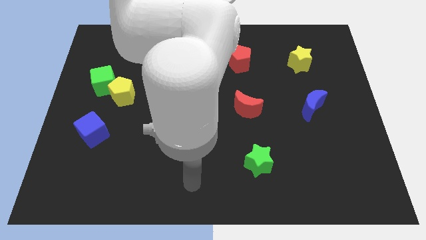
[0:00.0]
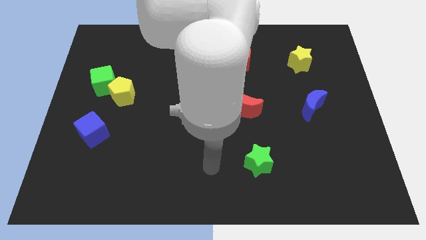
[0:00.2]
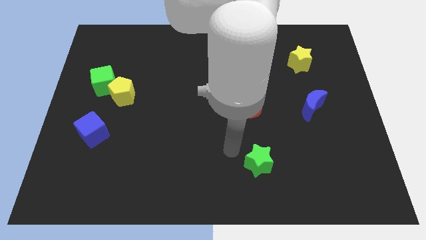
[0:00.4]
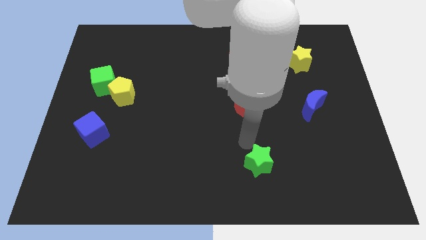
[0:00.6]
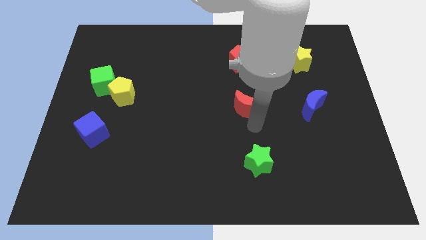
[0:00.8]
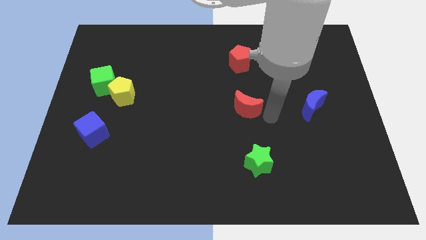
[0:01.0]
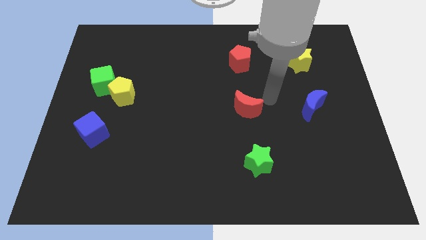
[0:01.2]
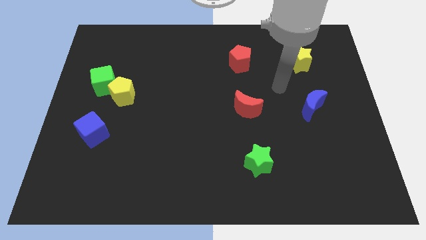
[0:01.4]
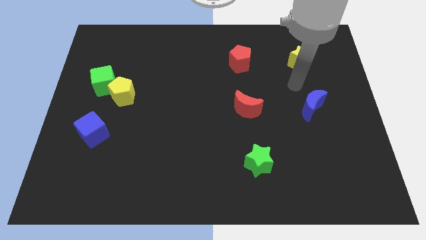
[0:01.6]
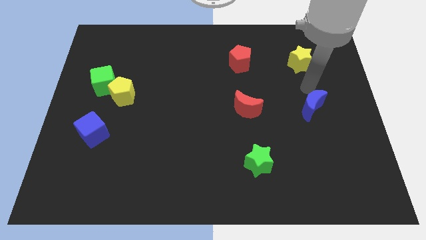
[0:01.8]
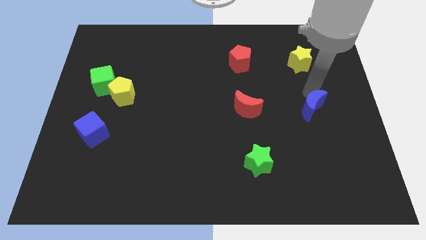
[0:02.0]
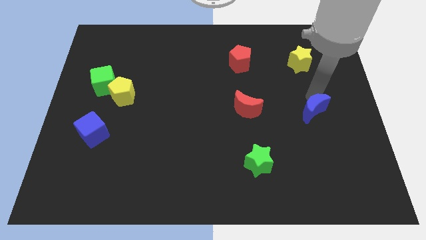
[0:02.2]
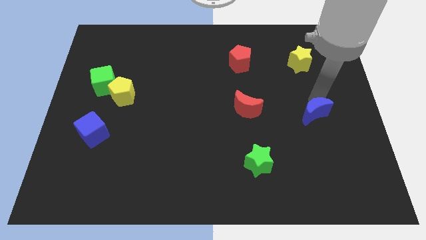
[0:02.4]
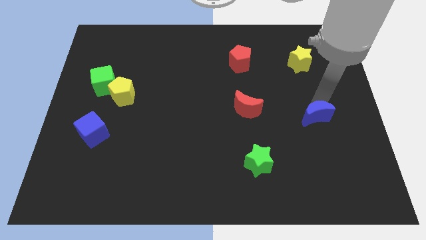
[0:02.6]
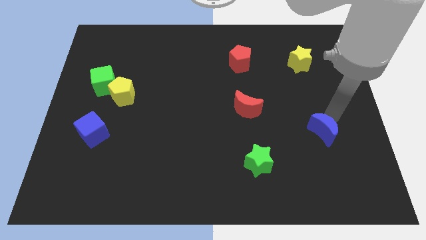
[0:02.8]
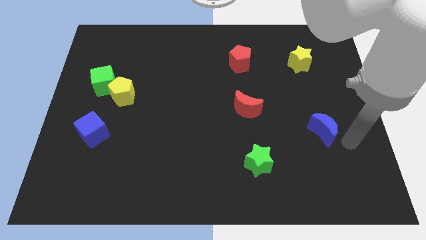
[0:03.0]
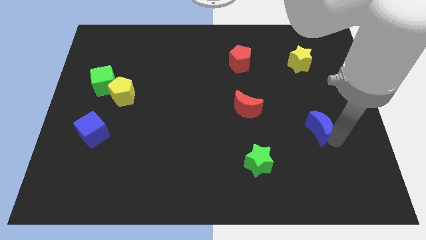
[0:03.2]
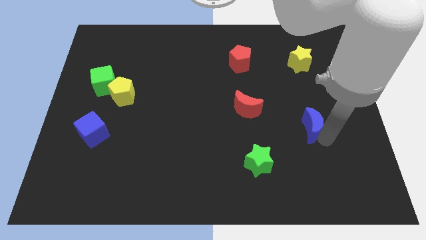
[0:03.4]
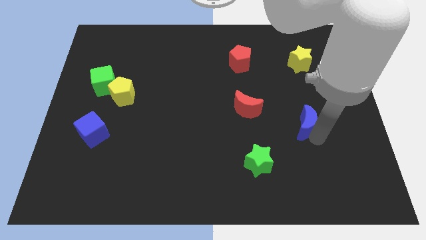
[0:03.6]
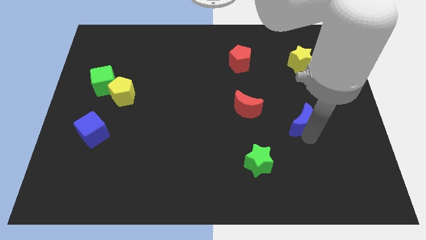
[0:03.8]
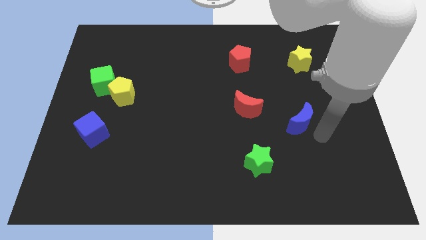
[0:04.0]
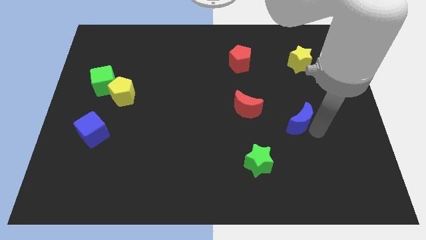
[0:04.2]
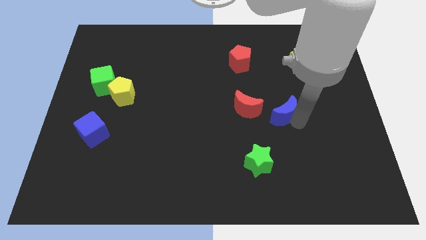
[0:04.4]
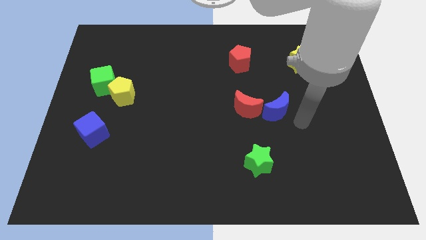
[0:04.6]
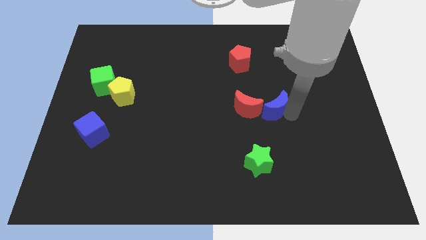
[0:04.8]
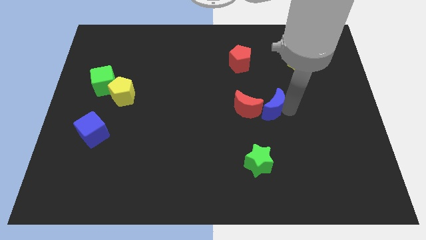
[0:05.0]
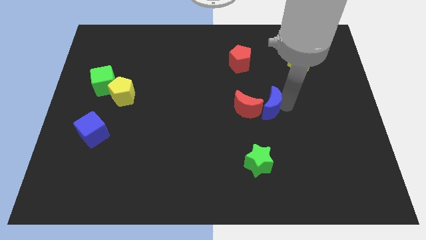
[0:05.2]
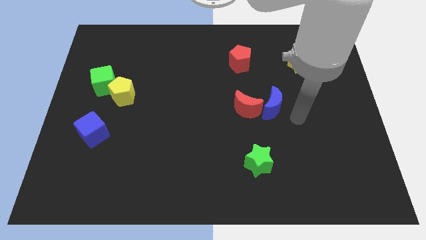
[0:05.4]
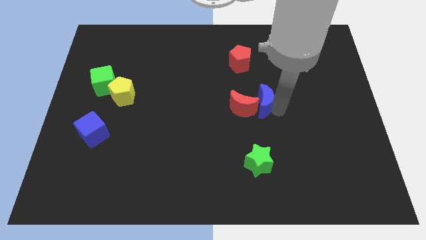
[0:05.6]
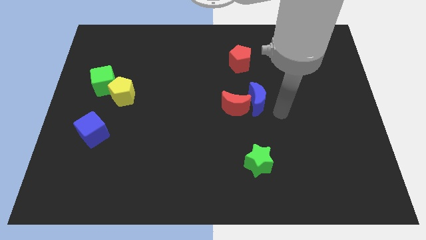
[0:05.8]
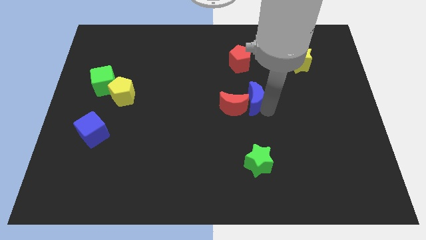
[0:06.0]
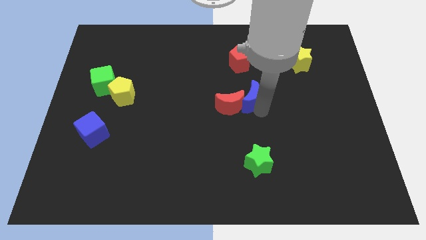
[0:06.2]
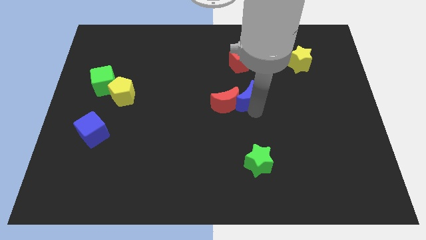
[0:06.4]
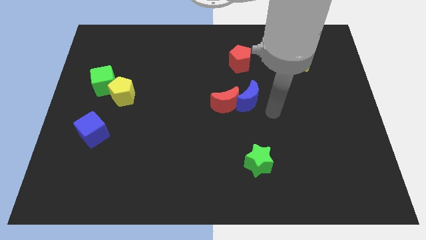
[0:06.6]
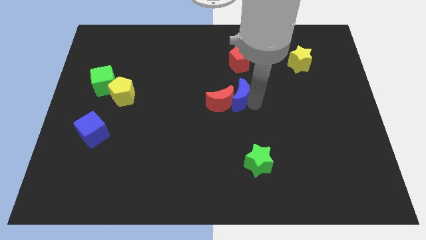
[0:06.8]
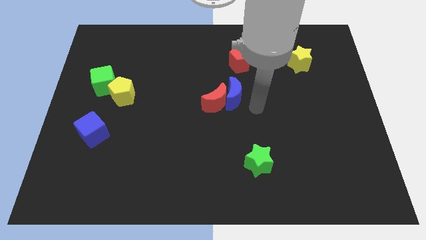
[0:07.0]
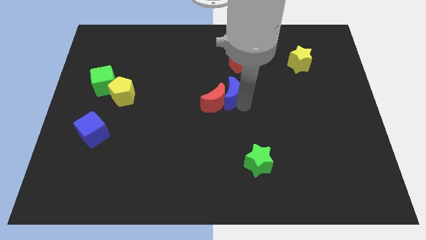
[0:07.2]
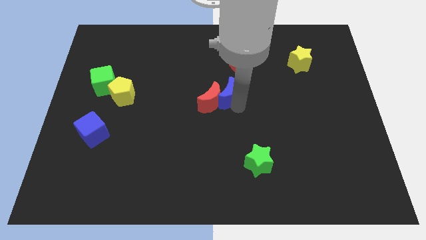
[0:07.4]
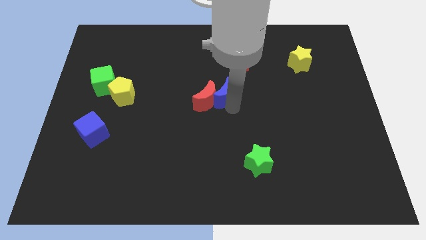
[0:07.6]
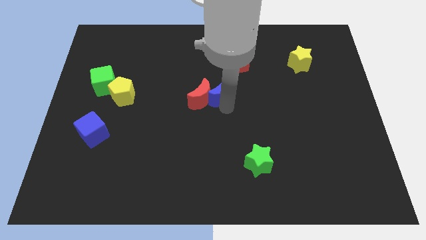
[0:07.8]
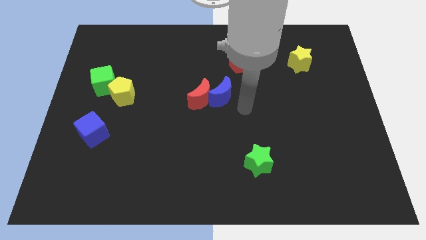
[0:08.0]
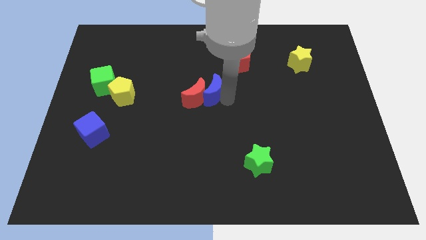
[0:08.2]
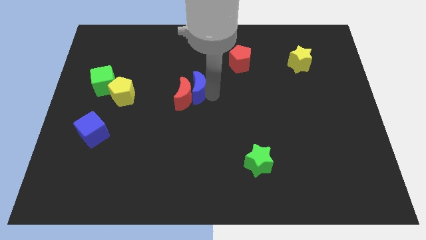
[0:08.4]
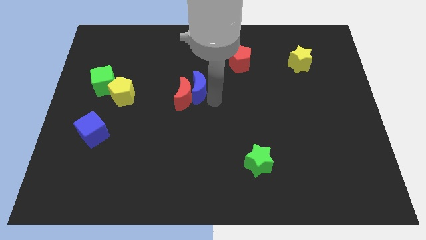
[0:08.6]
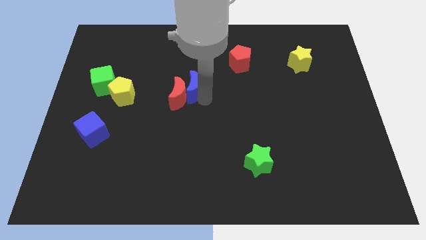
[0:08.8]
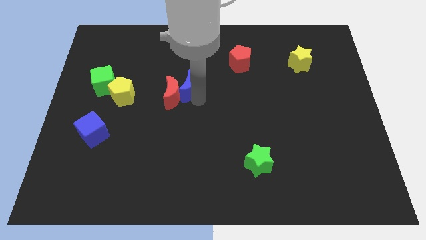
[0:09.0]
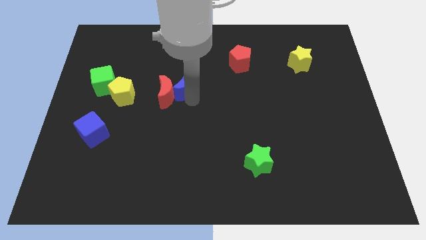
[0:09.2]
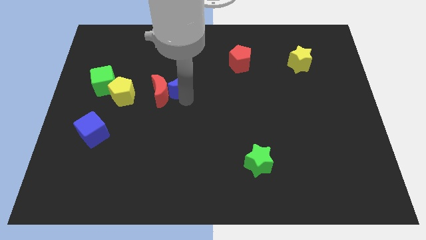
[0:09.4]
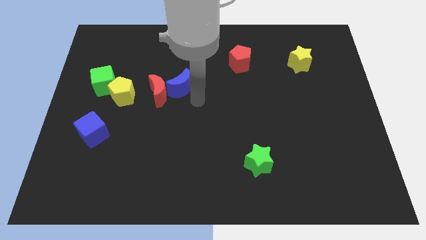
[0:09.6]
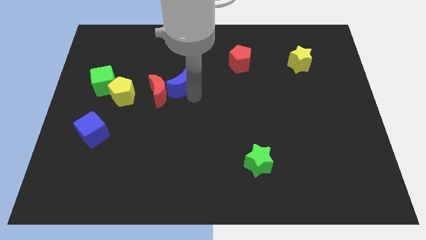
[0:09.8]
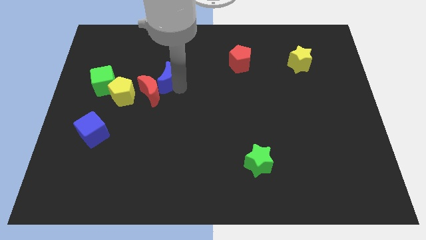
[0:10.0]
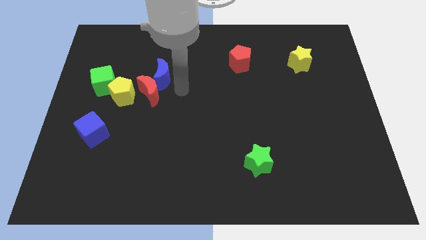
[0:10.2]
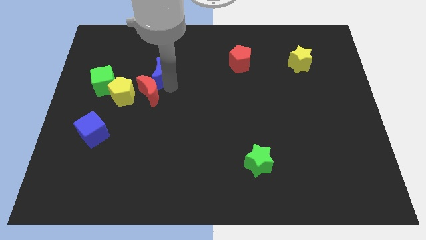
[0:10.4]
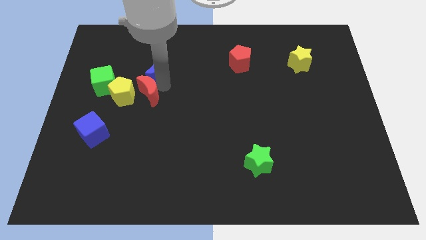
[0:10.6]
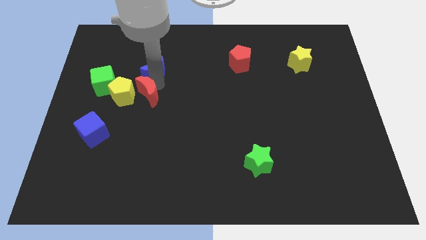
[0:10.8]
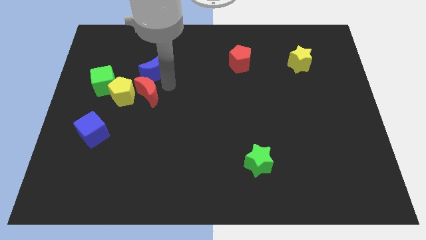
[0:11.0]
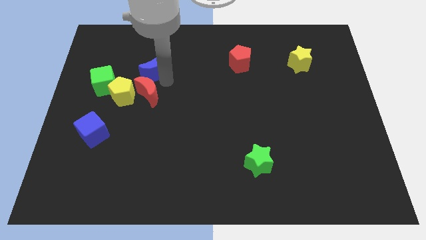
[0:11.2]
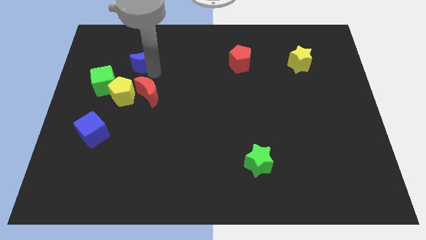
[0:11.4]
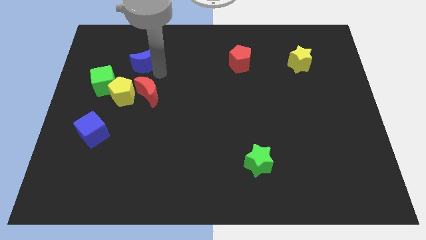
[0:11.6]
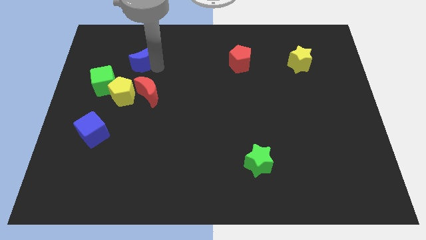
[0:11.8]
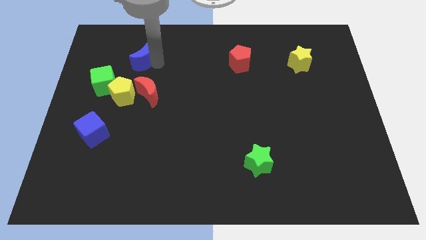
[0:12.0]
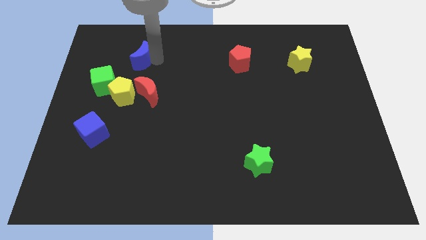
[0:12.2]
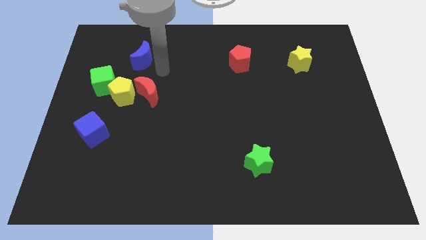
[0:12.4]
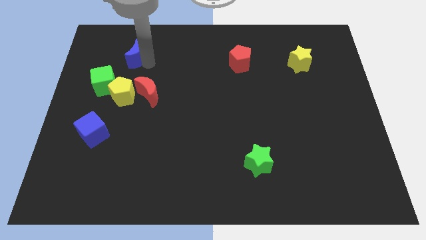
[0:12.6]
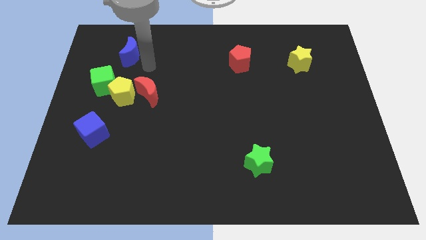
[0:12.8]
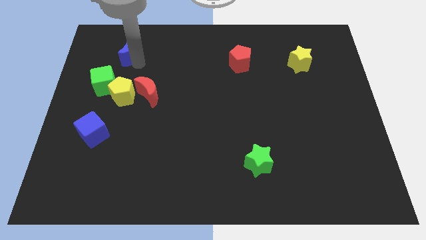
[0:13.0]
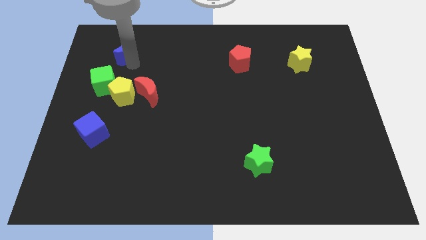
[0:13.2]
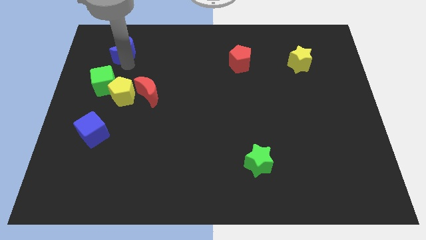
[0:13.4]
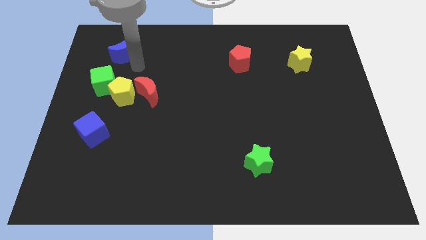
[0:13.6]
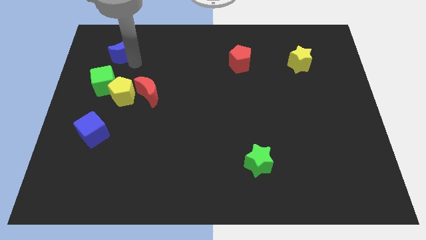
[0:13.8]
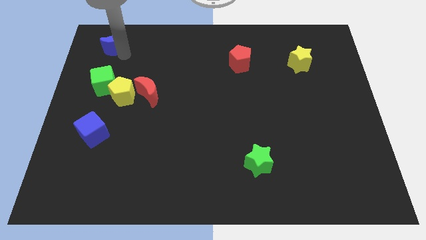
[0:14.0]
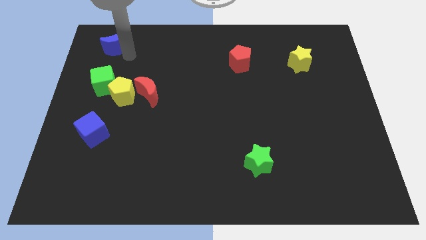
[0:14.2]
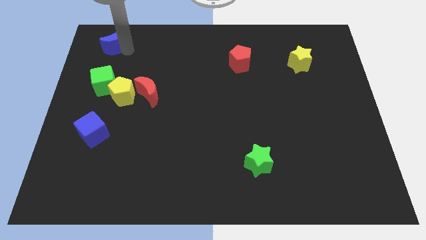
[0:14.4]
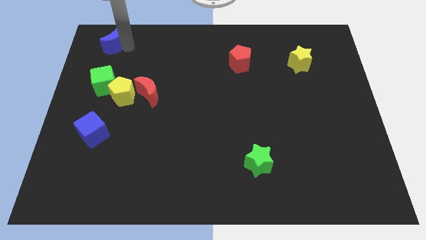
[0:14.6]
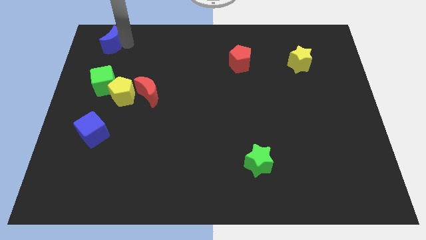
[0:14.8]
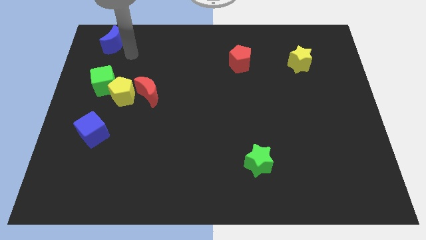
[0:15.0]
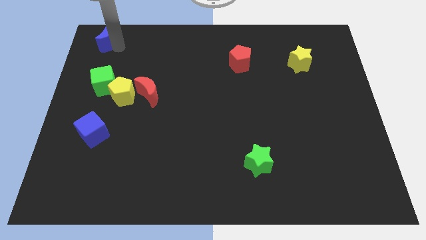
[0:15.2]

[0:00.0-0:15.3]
slide the blue moon to the top left

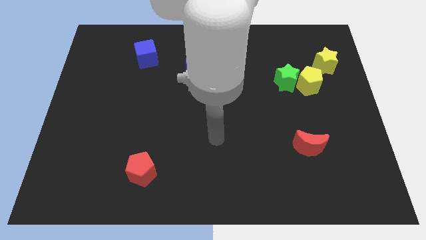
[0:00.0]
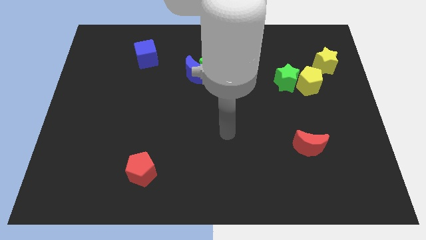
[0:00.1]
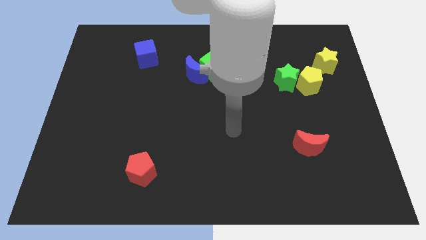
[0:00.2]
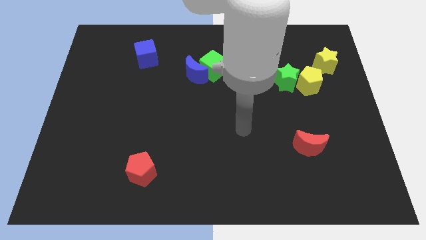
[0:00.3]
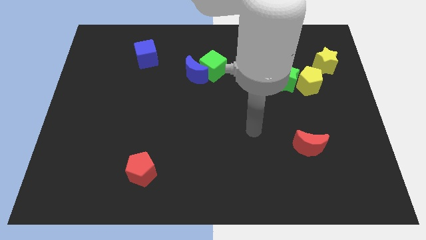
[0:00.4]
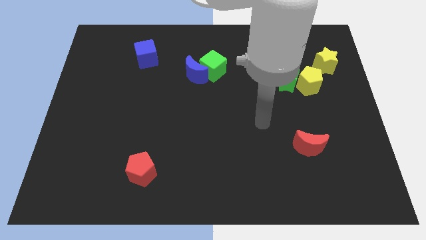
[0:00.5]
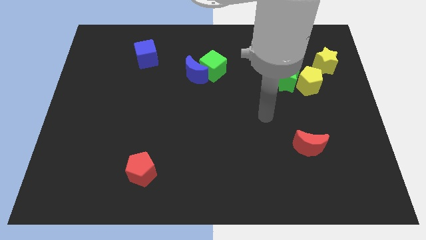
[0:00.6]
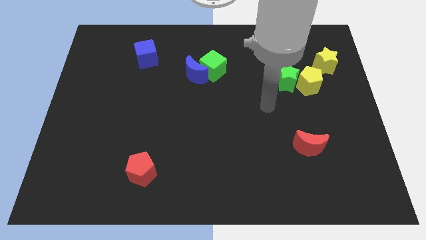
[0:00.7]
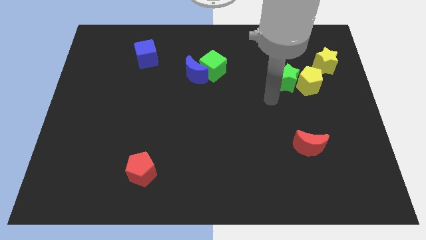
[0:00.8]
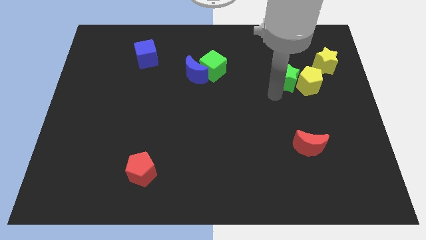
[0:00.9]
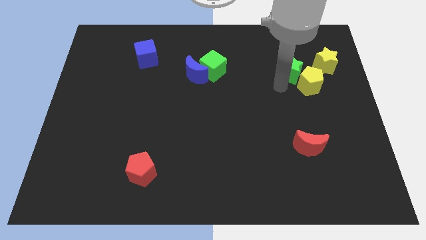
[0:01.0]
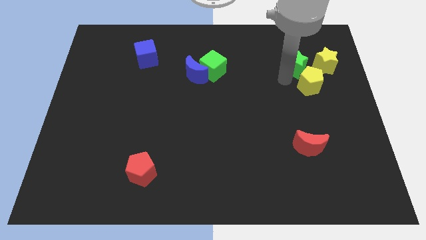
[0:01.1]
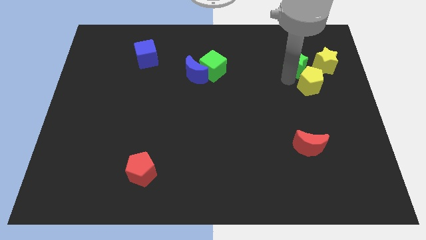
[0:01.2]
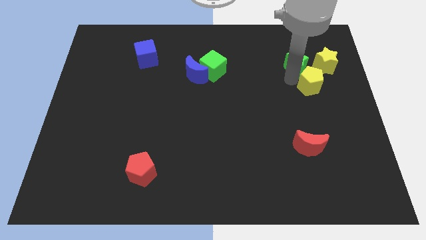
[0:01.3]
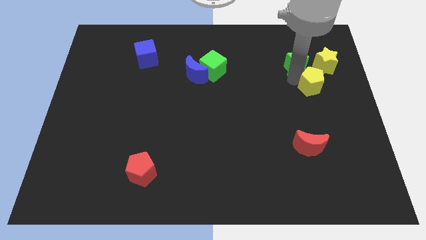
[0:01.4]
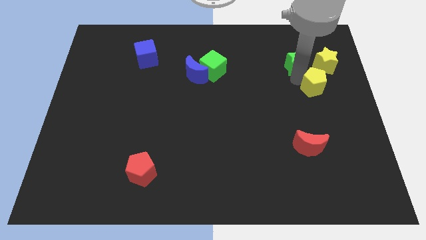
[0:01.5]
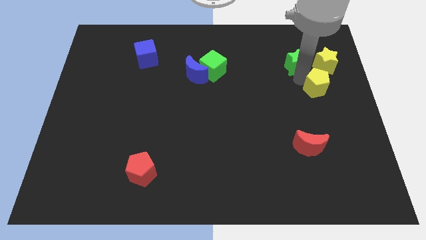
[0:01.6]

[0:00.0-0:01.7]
push the yellow pentagon to the right side
